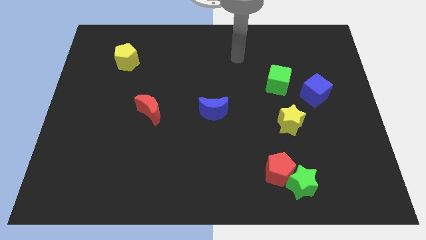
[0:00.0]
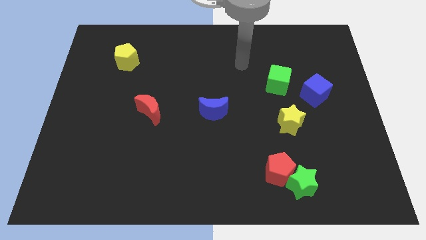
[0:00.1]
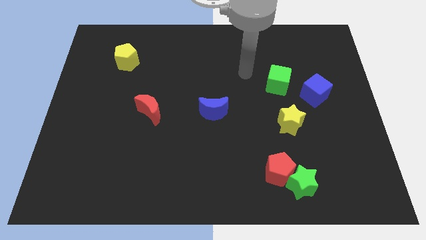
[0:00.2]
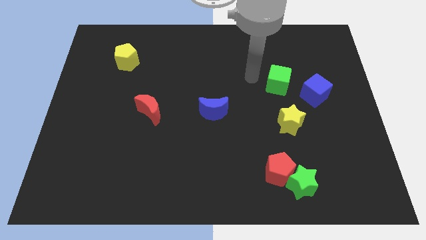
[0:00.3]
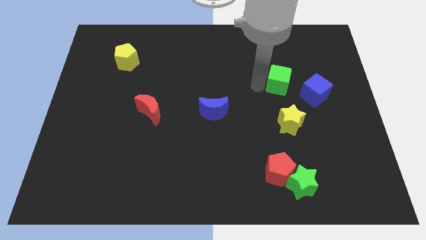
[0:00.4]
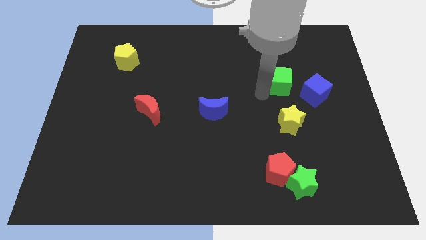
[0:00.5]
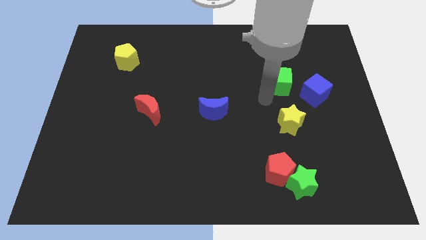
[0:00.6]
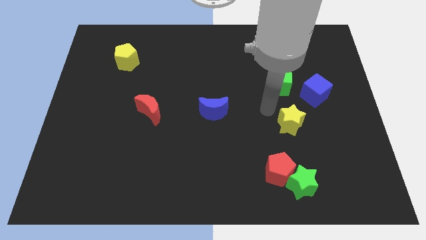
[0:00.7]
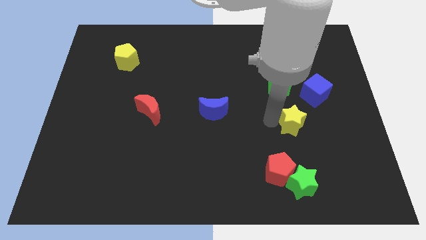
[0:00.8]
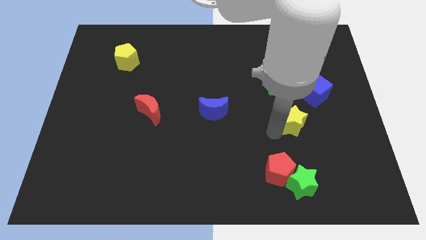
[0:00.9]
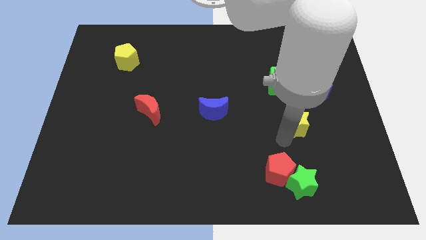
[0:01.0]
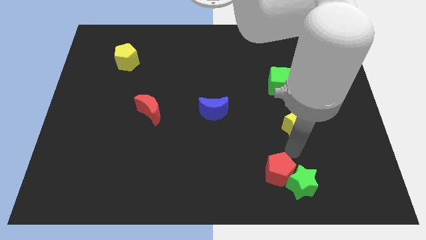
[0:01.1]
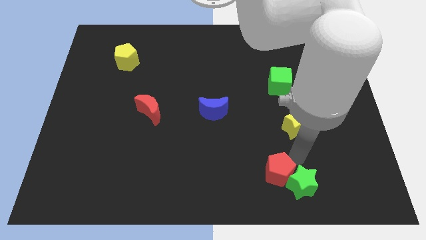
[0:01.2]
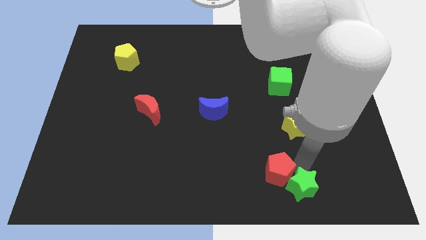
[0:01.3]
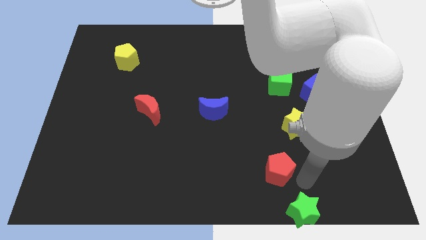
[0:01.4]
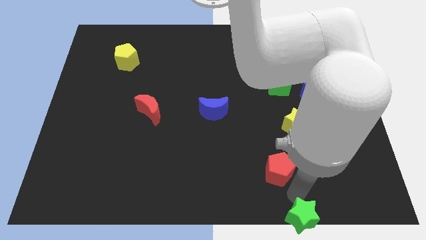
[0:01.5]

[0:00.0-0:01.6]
pull the red pentagon apart from the green star

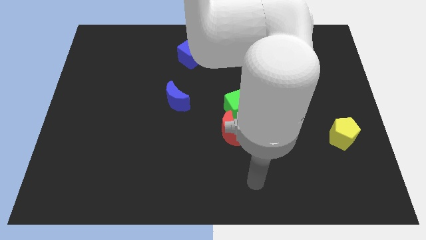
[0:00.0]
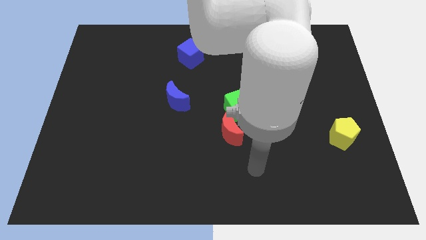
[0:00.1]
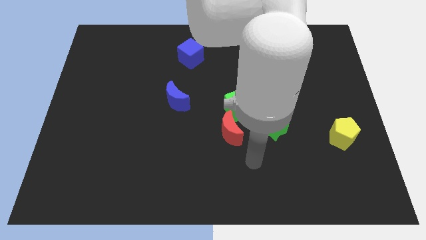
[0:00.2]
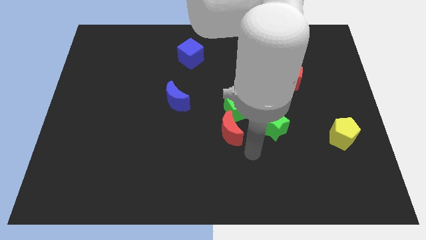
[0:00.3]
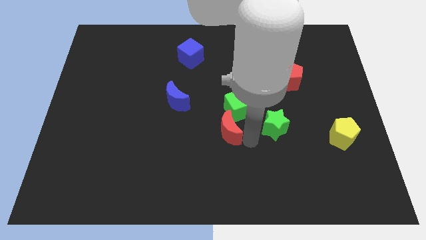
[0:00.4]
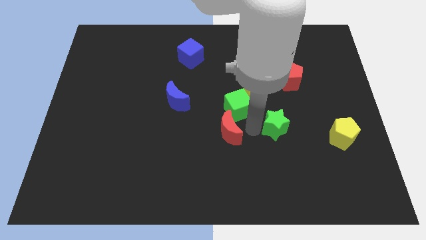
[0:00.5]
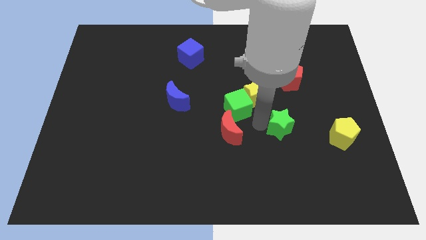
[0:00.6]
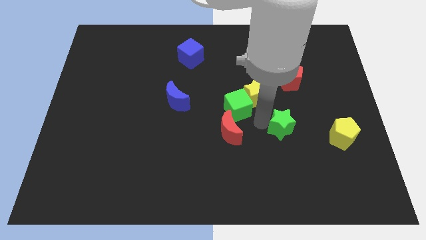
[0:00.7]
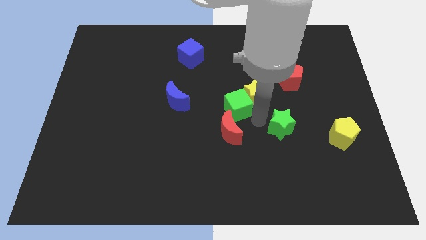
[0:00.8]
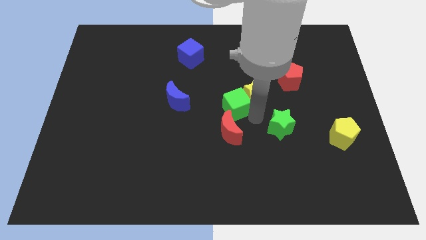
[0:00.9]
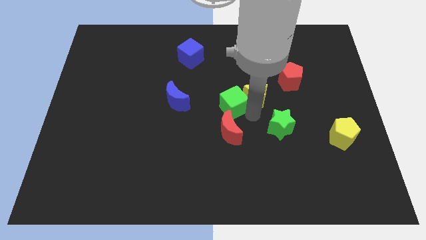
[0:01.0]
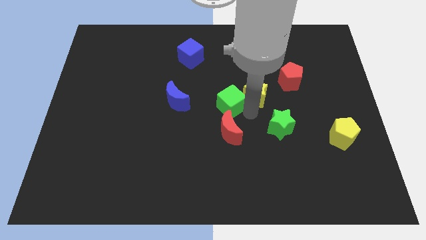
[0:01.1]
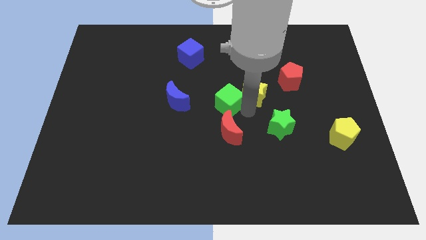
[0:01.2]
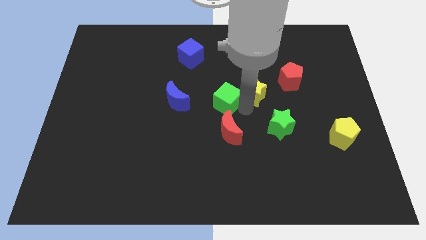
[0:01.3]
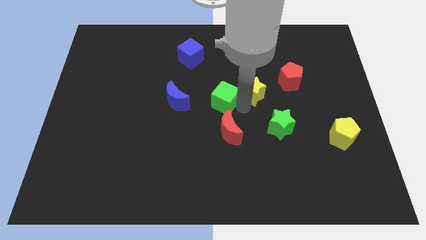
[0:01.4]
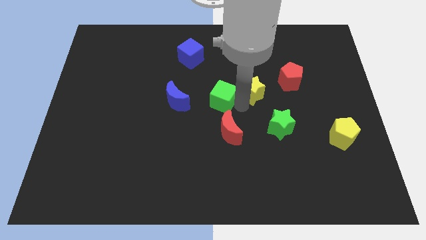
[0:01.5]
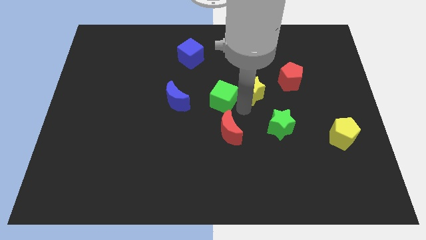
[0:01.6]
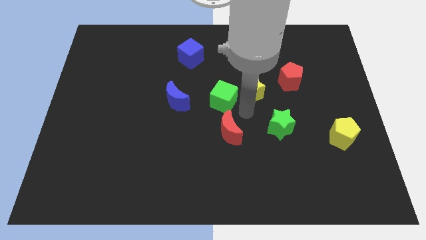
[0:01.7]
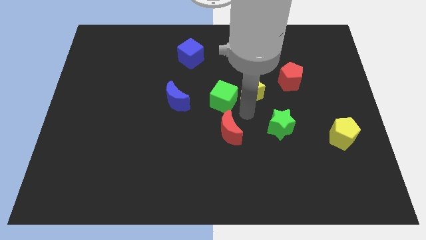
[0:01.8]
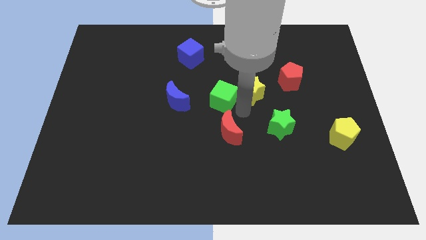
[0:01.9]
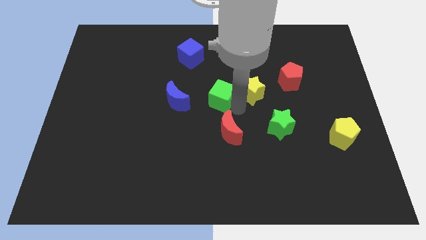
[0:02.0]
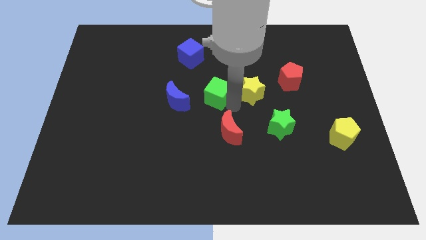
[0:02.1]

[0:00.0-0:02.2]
pull the green cube apart from the clump

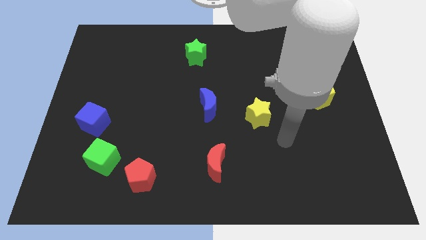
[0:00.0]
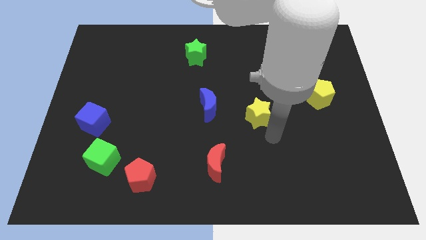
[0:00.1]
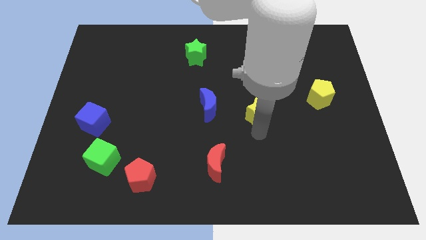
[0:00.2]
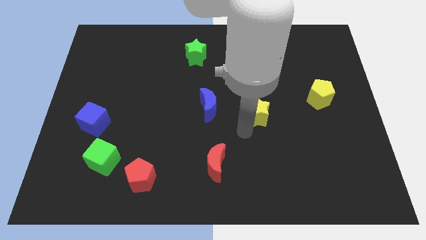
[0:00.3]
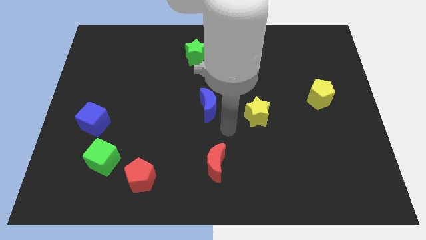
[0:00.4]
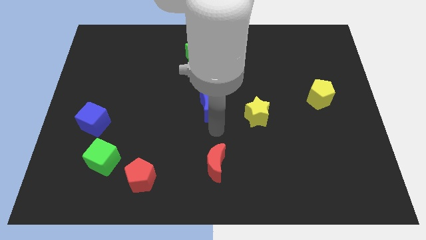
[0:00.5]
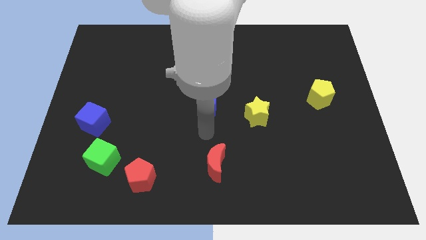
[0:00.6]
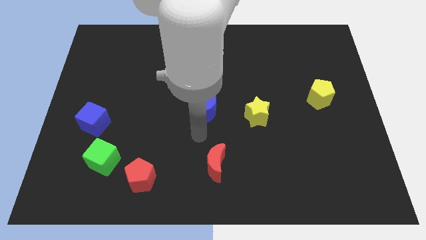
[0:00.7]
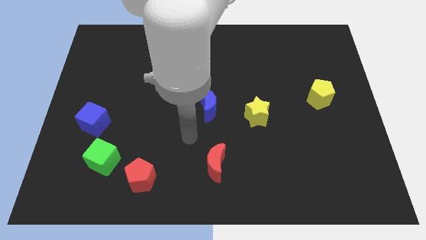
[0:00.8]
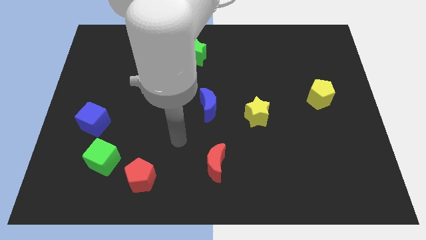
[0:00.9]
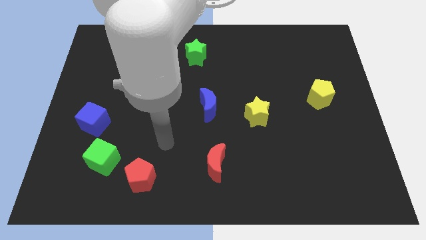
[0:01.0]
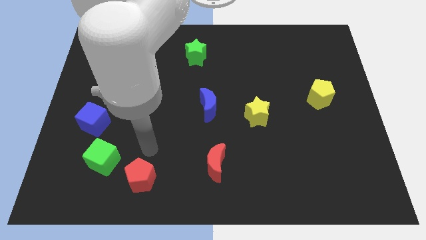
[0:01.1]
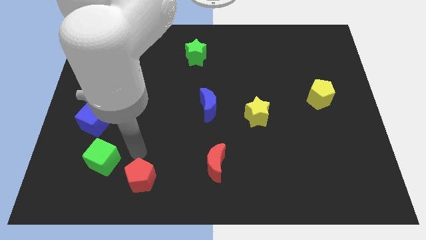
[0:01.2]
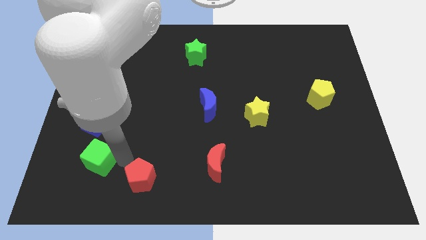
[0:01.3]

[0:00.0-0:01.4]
separate the red pentagon from the green cube

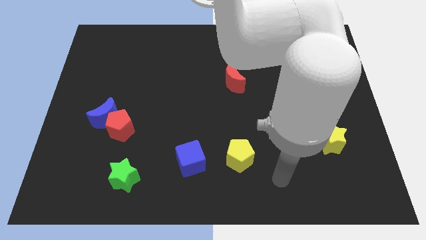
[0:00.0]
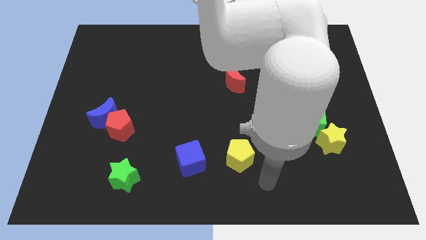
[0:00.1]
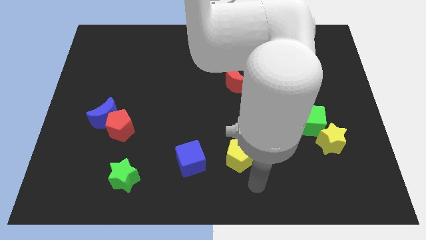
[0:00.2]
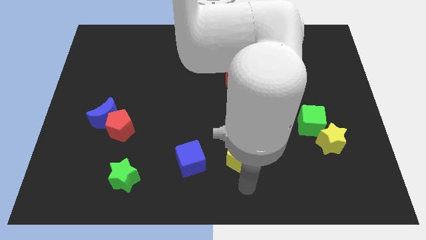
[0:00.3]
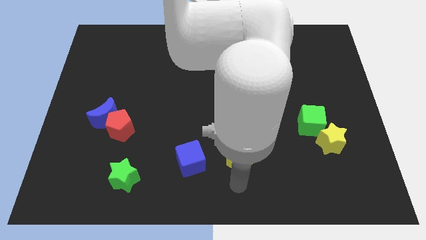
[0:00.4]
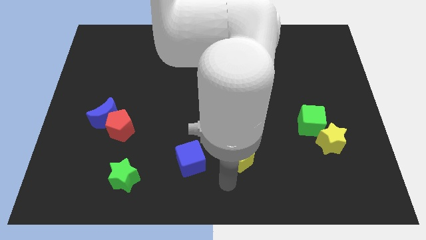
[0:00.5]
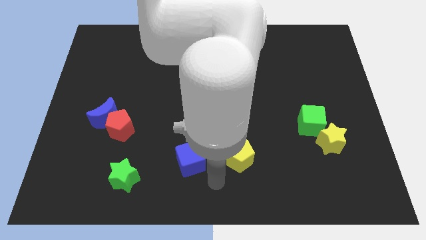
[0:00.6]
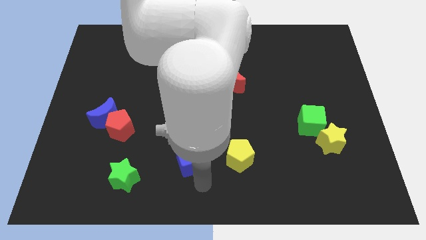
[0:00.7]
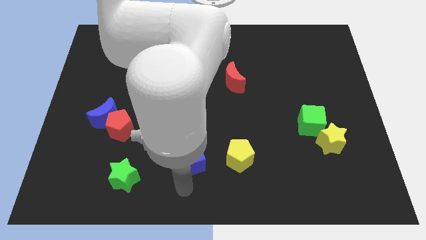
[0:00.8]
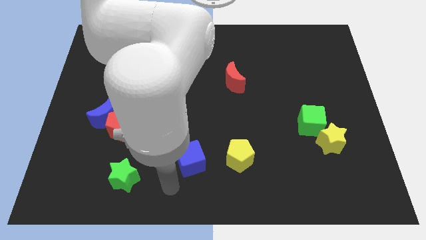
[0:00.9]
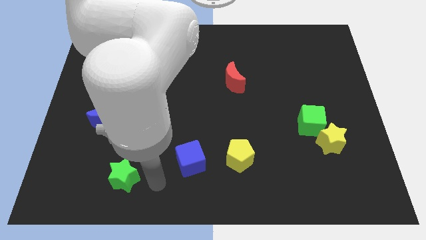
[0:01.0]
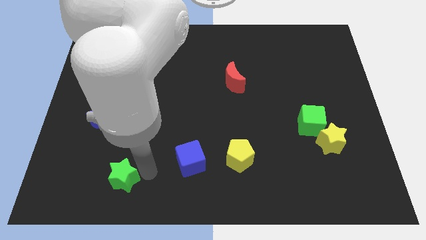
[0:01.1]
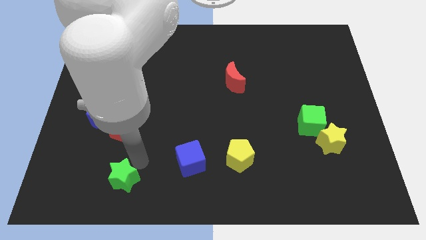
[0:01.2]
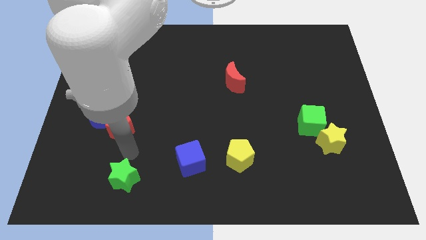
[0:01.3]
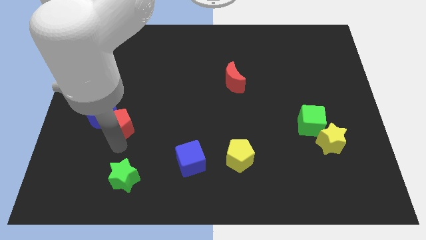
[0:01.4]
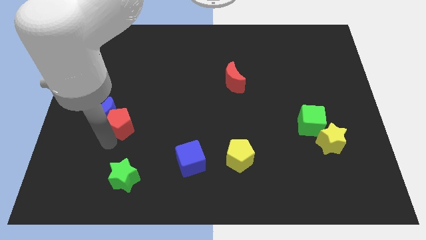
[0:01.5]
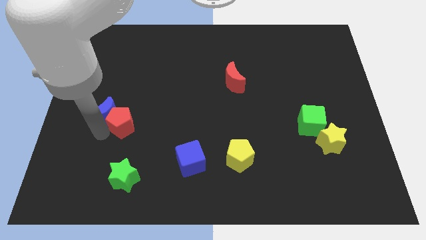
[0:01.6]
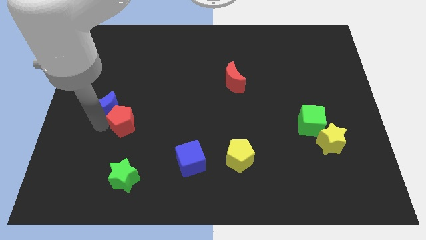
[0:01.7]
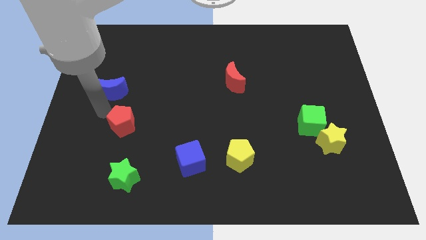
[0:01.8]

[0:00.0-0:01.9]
pull the red pentagon apart from the blue moon

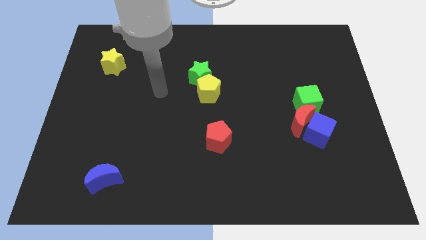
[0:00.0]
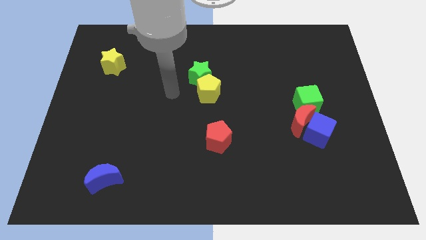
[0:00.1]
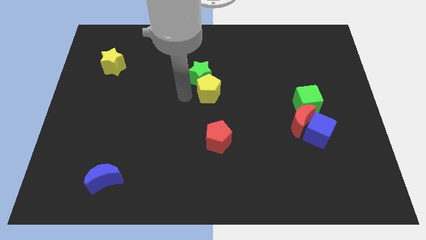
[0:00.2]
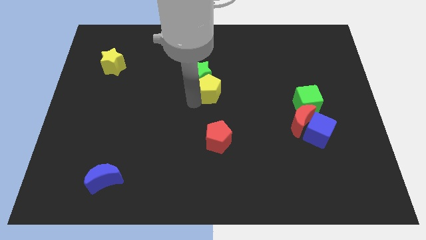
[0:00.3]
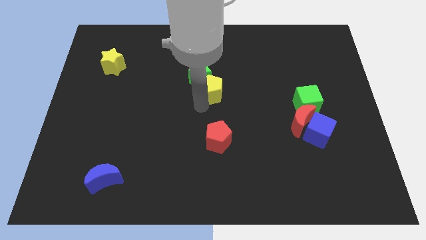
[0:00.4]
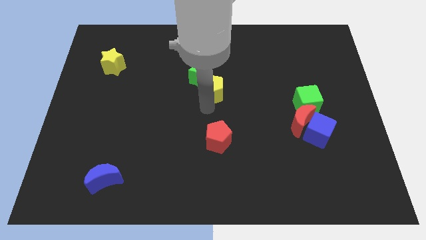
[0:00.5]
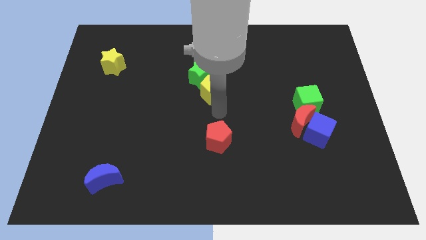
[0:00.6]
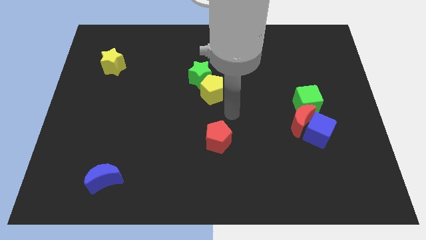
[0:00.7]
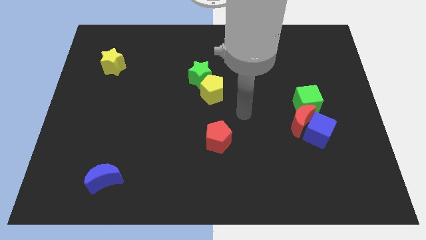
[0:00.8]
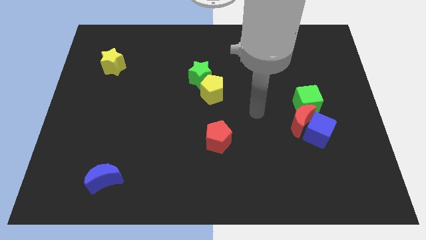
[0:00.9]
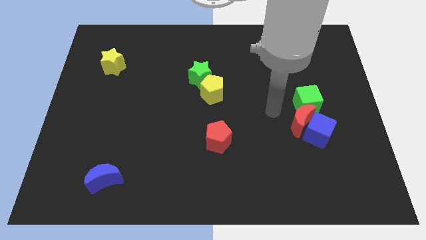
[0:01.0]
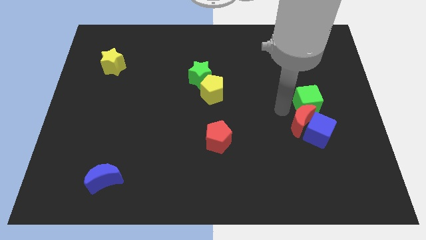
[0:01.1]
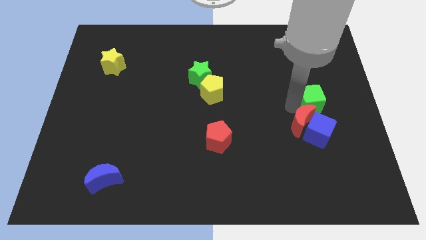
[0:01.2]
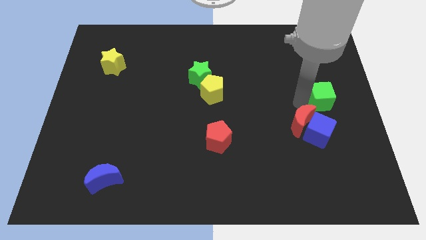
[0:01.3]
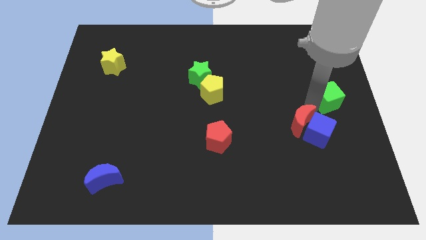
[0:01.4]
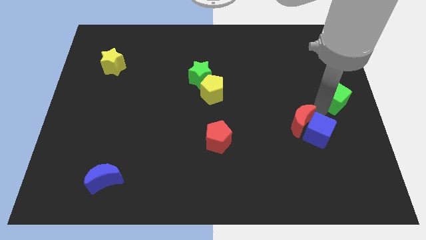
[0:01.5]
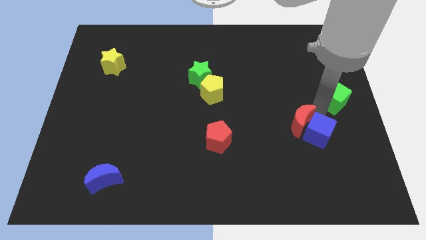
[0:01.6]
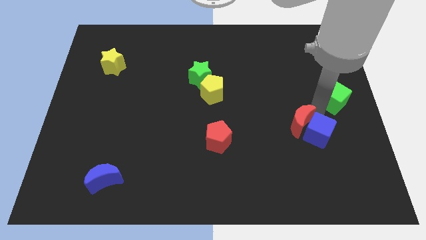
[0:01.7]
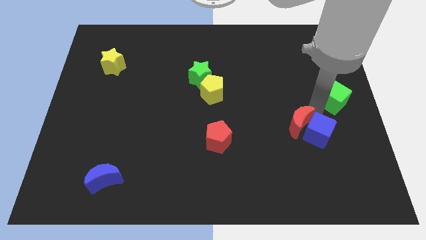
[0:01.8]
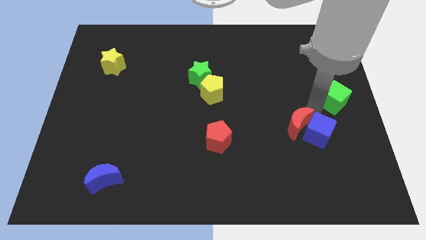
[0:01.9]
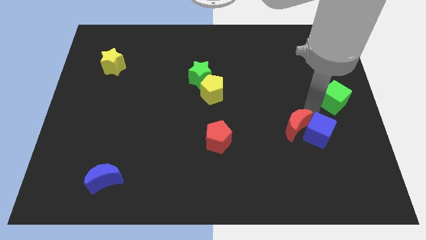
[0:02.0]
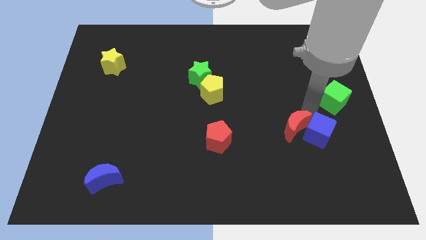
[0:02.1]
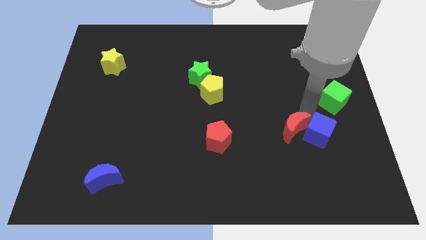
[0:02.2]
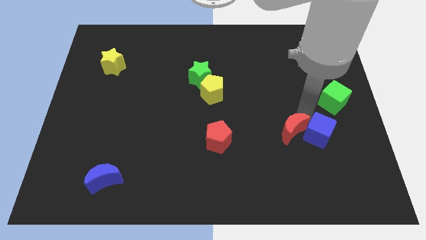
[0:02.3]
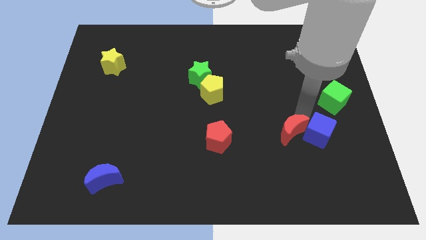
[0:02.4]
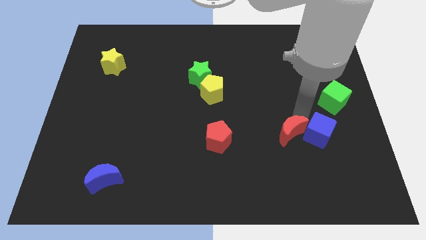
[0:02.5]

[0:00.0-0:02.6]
pull the red moon apart from the blue cube and green cube
